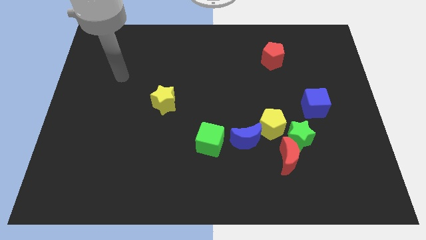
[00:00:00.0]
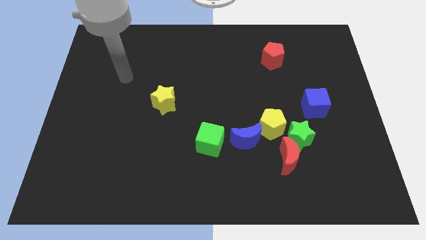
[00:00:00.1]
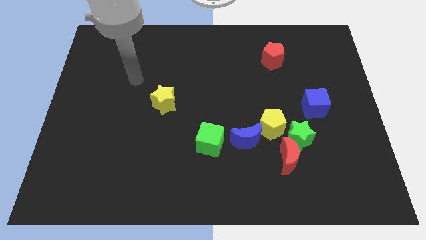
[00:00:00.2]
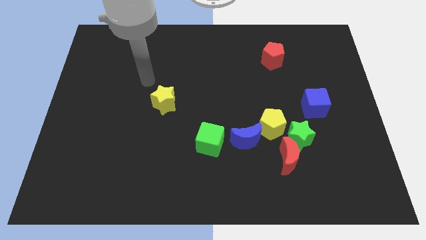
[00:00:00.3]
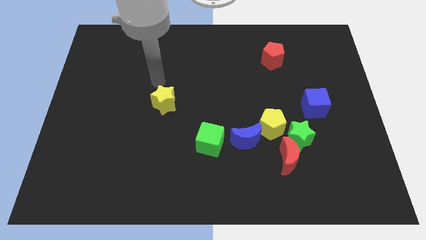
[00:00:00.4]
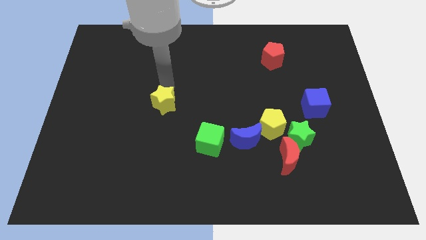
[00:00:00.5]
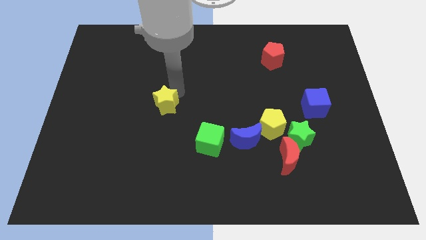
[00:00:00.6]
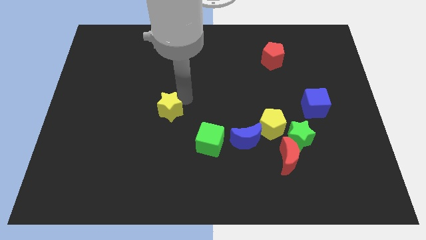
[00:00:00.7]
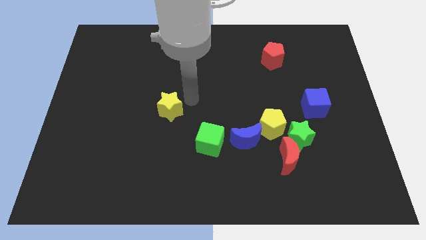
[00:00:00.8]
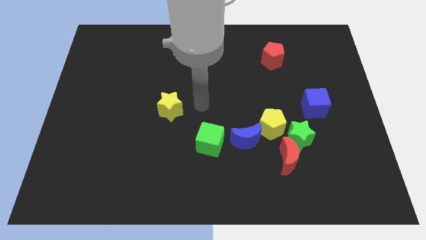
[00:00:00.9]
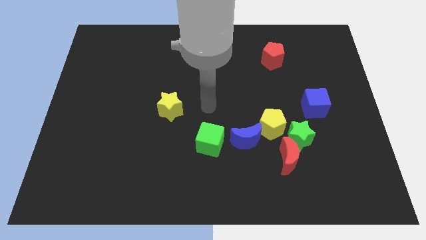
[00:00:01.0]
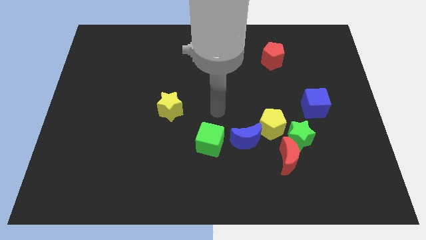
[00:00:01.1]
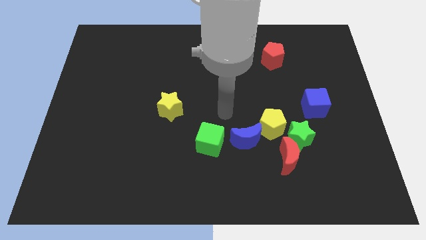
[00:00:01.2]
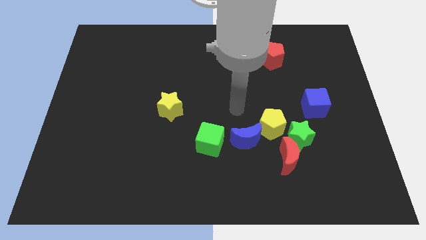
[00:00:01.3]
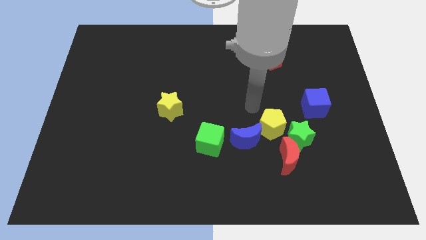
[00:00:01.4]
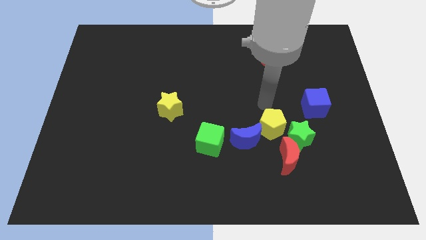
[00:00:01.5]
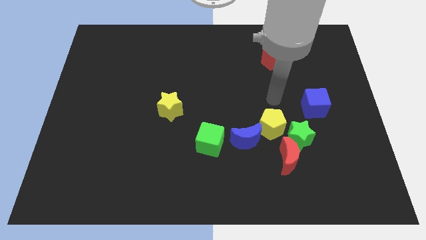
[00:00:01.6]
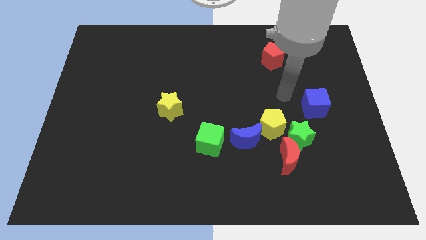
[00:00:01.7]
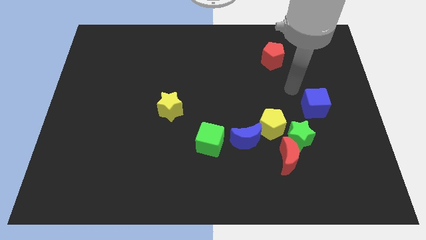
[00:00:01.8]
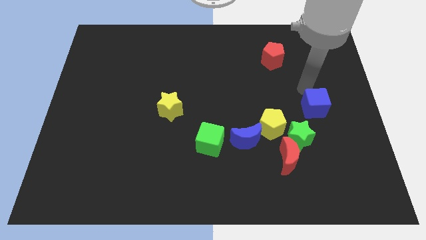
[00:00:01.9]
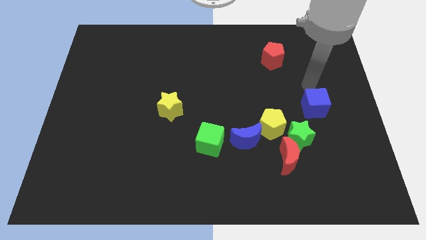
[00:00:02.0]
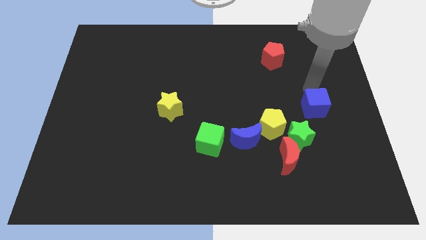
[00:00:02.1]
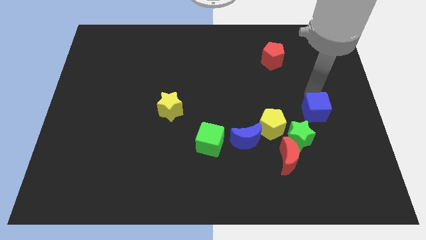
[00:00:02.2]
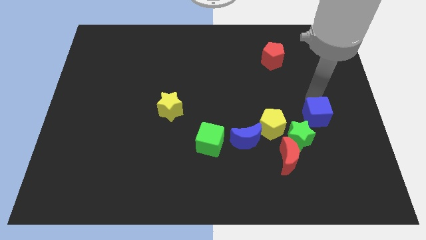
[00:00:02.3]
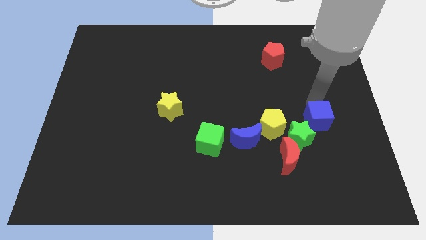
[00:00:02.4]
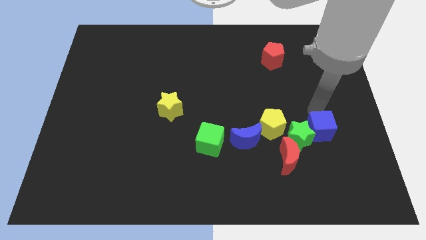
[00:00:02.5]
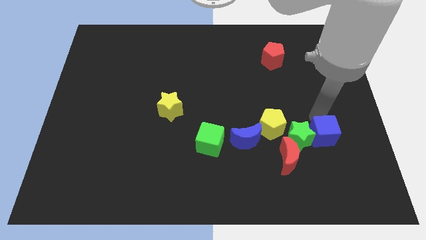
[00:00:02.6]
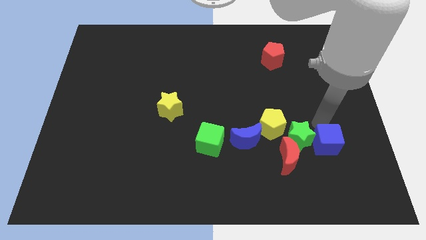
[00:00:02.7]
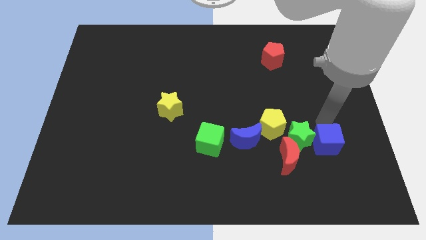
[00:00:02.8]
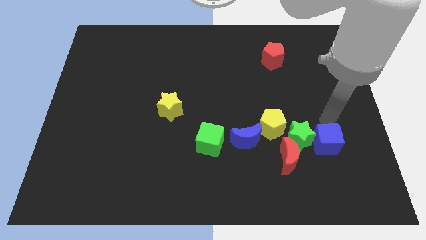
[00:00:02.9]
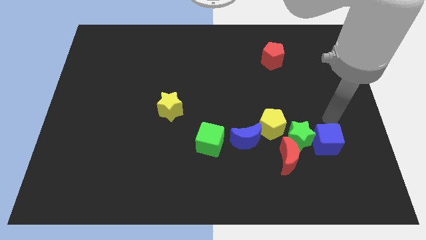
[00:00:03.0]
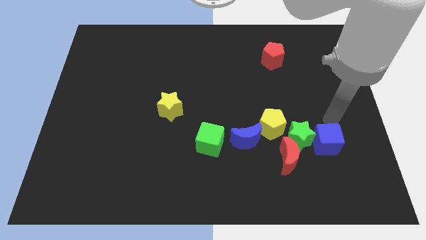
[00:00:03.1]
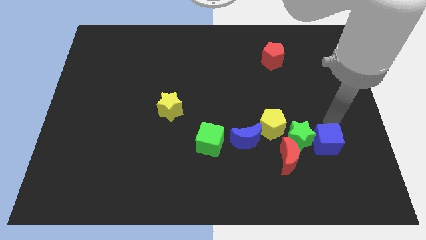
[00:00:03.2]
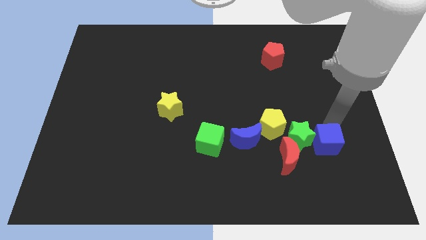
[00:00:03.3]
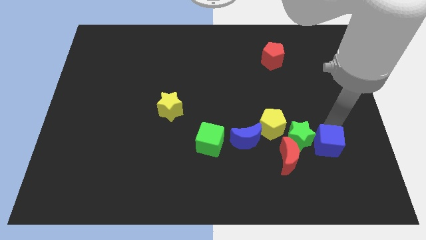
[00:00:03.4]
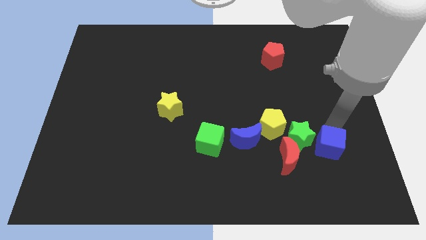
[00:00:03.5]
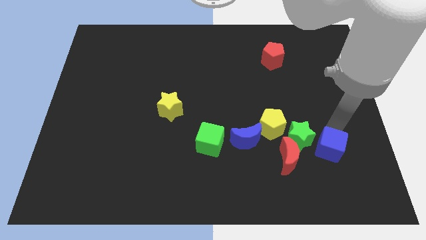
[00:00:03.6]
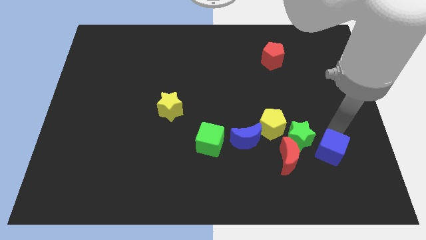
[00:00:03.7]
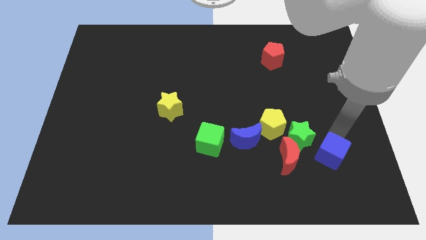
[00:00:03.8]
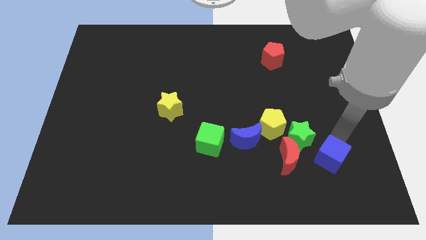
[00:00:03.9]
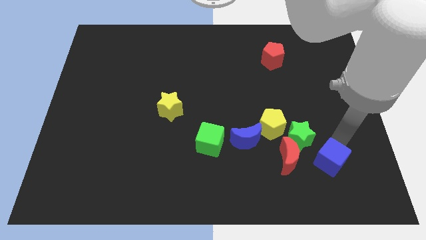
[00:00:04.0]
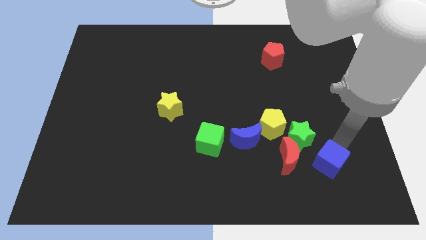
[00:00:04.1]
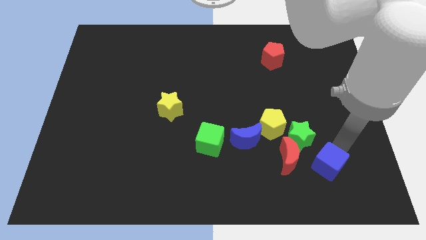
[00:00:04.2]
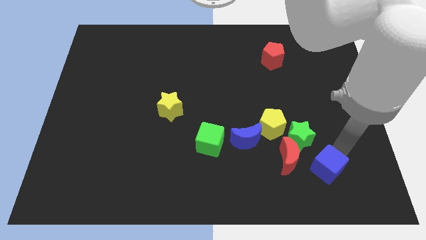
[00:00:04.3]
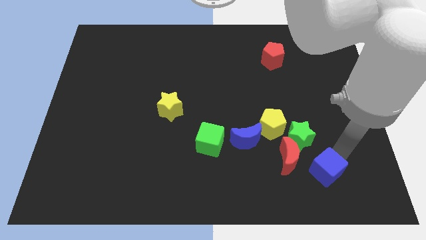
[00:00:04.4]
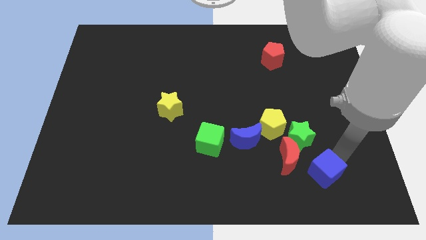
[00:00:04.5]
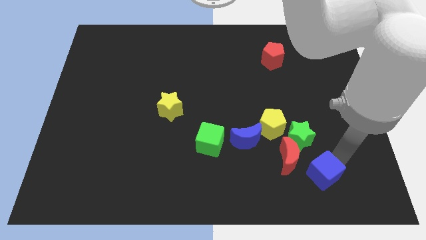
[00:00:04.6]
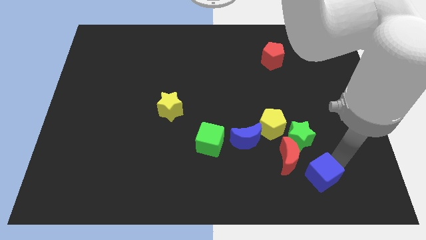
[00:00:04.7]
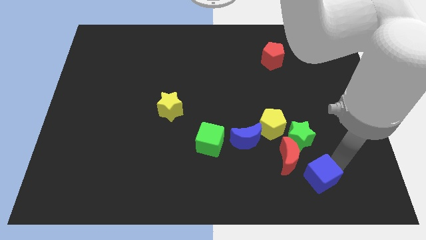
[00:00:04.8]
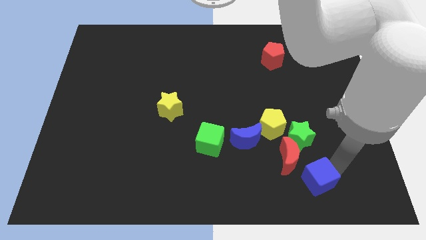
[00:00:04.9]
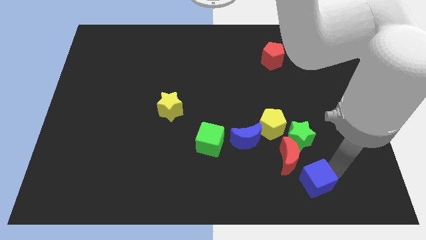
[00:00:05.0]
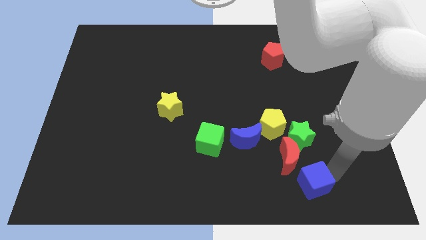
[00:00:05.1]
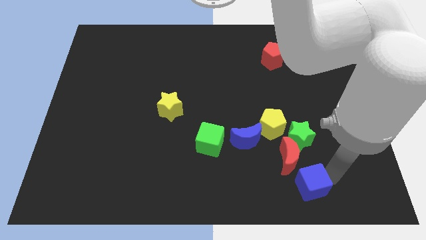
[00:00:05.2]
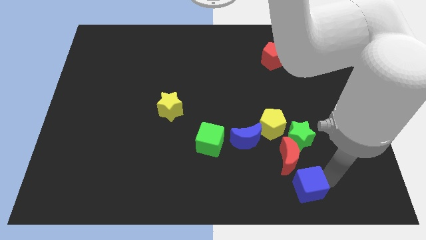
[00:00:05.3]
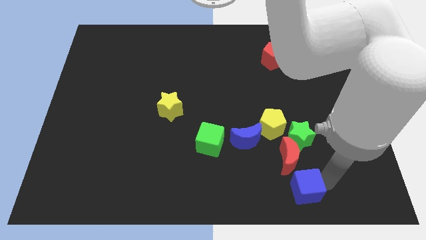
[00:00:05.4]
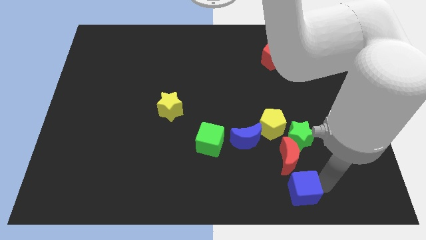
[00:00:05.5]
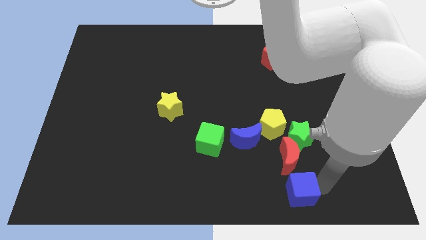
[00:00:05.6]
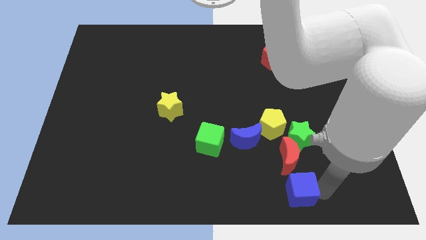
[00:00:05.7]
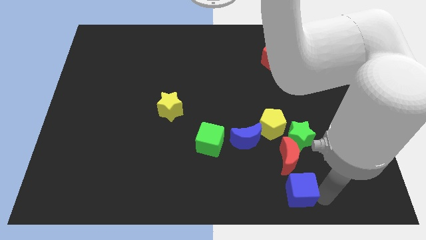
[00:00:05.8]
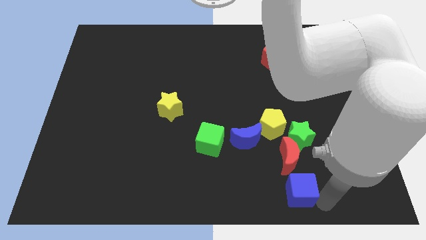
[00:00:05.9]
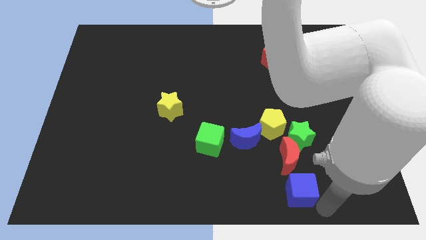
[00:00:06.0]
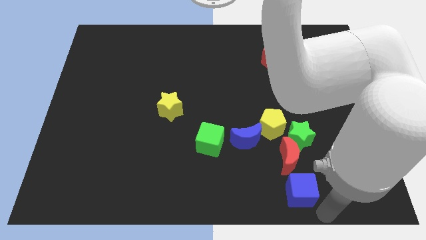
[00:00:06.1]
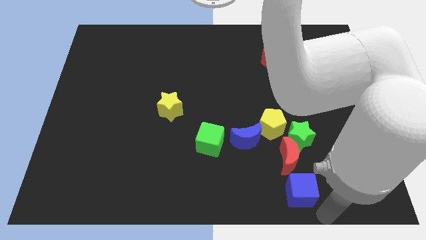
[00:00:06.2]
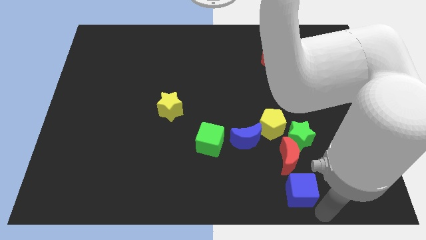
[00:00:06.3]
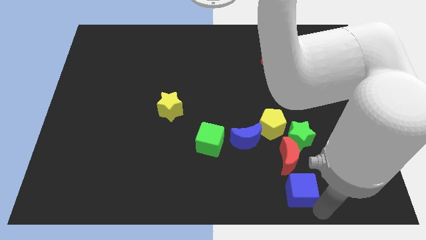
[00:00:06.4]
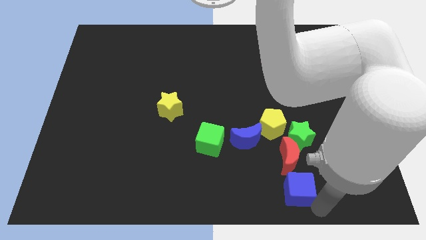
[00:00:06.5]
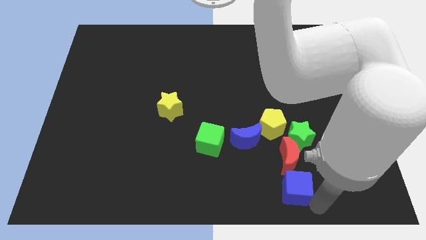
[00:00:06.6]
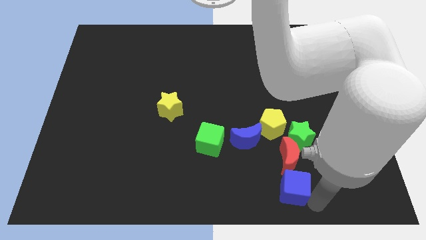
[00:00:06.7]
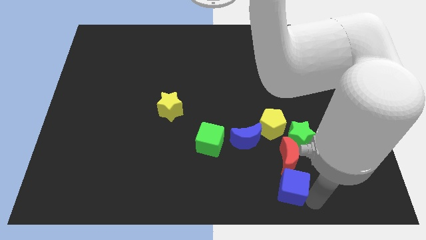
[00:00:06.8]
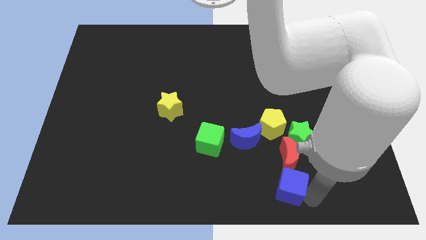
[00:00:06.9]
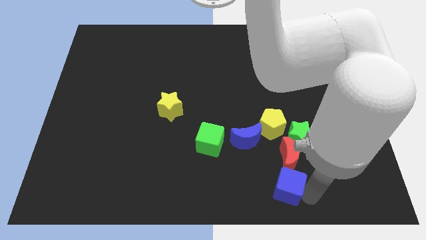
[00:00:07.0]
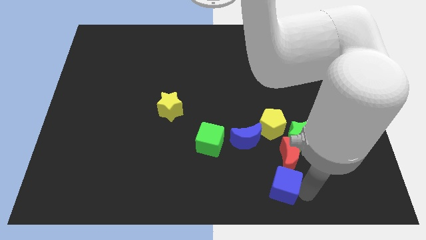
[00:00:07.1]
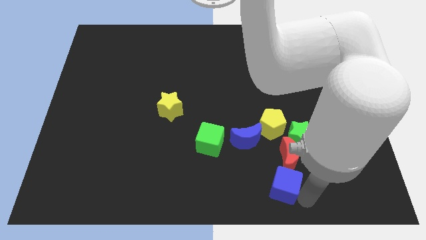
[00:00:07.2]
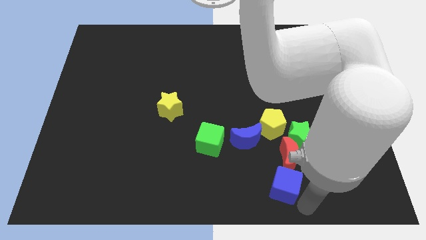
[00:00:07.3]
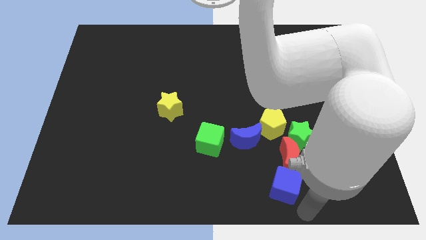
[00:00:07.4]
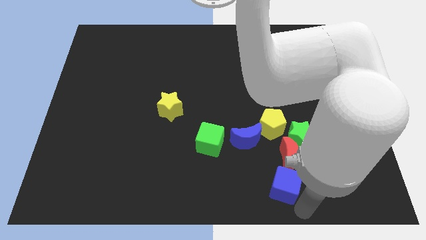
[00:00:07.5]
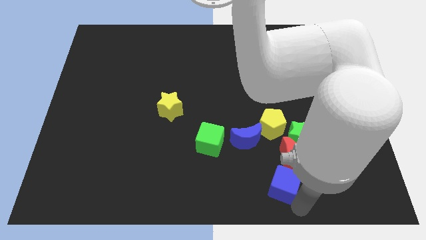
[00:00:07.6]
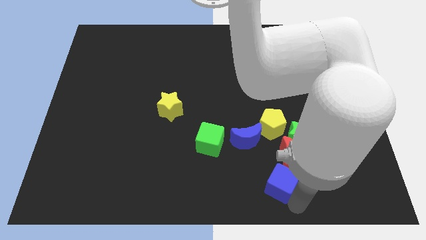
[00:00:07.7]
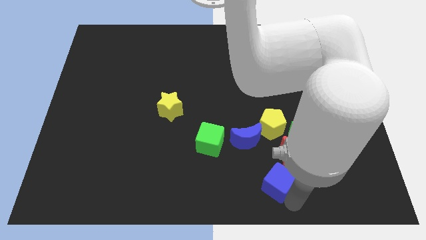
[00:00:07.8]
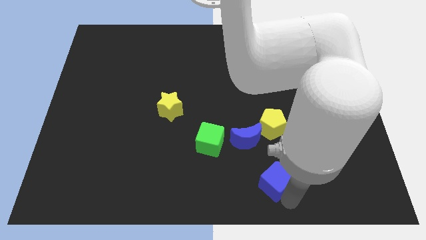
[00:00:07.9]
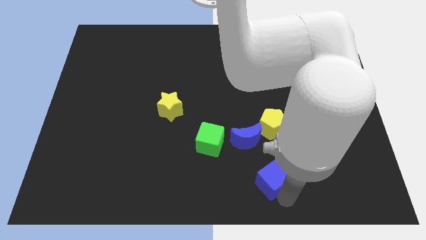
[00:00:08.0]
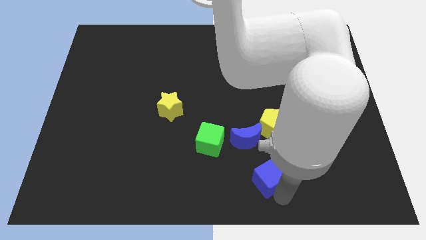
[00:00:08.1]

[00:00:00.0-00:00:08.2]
put the blue cube left of the red moon
